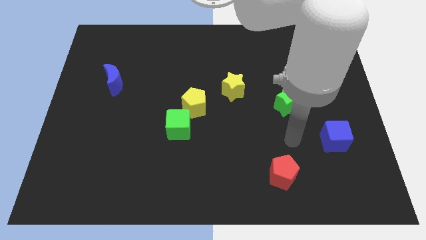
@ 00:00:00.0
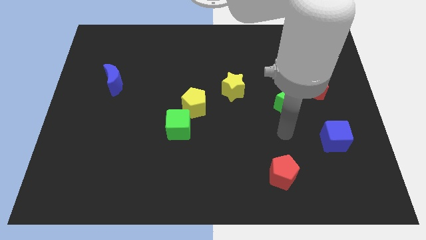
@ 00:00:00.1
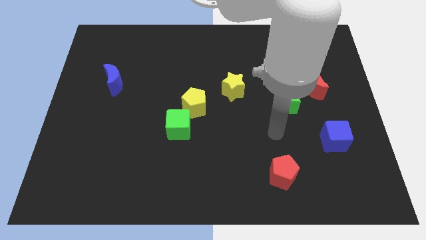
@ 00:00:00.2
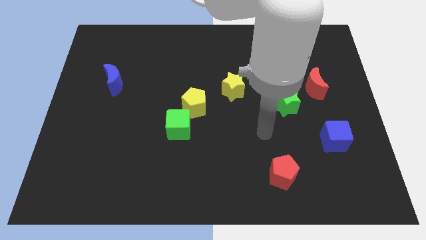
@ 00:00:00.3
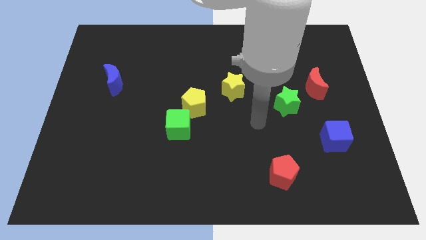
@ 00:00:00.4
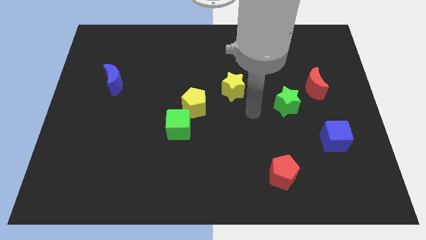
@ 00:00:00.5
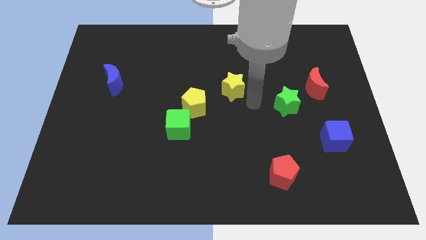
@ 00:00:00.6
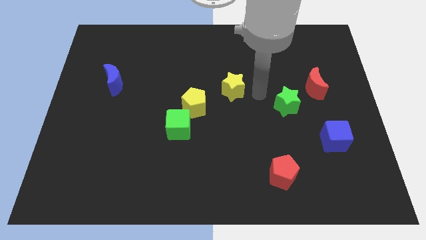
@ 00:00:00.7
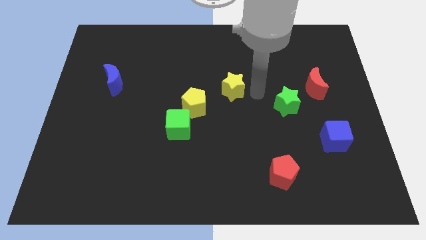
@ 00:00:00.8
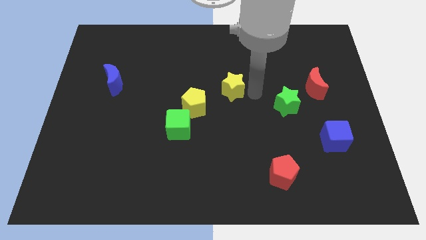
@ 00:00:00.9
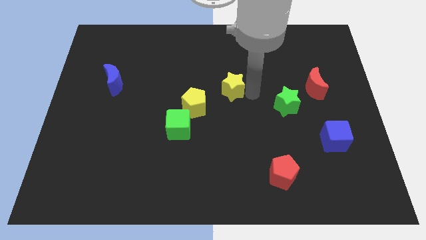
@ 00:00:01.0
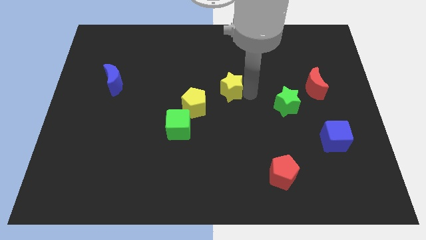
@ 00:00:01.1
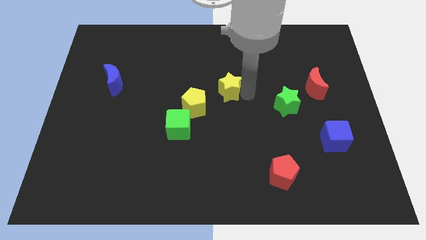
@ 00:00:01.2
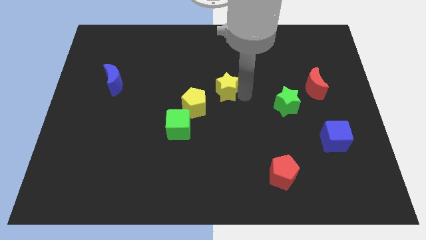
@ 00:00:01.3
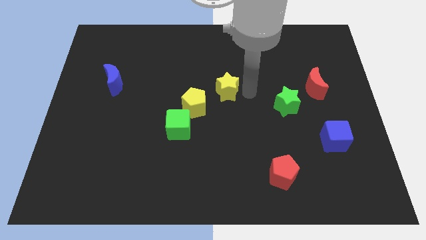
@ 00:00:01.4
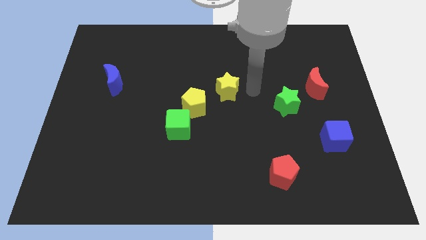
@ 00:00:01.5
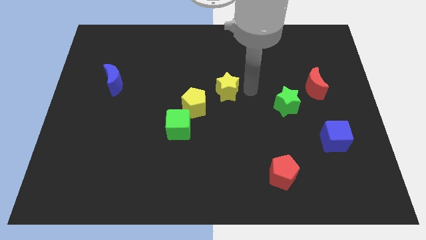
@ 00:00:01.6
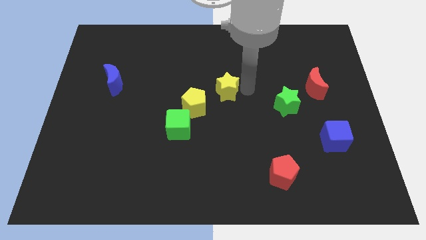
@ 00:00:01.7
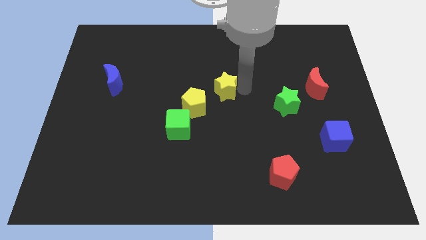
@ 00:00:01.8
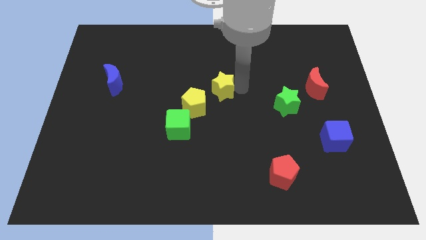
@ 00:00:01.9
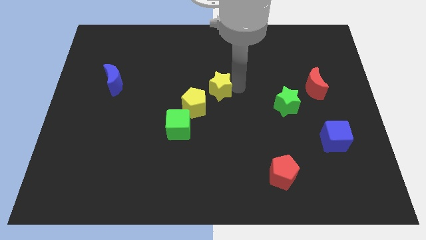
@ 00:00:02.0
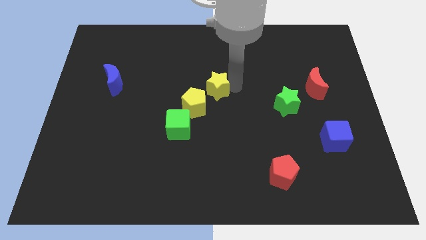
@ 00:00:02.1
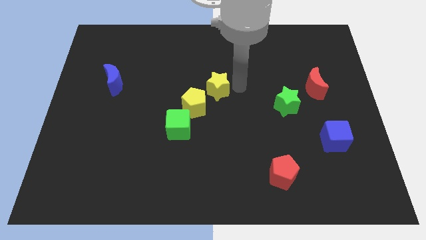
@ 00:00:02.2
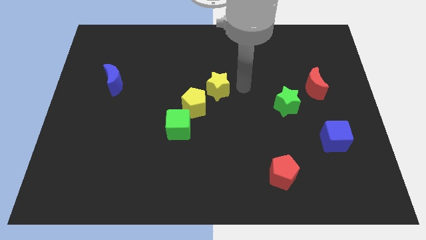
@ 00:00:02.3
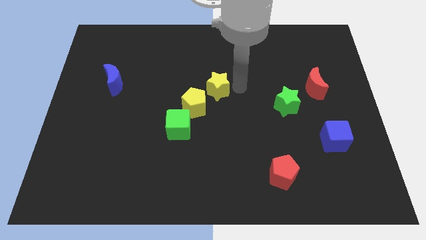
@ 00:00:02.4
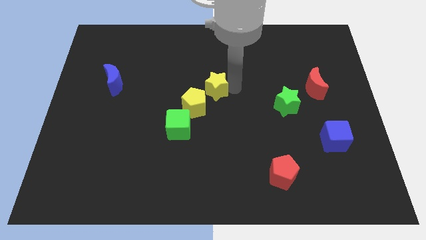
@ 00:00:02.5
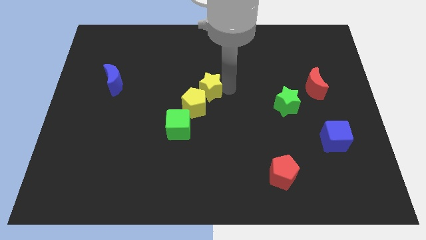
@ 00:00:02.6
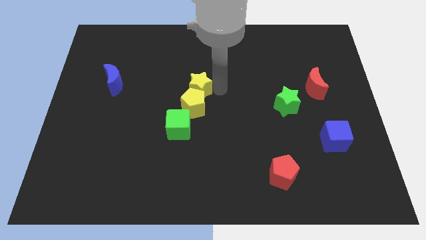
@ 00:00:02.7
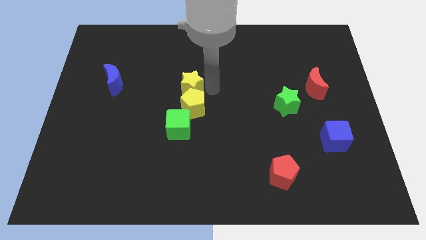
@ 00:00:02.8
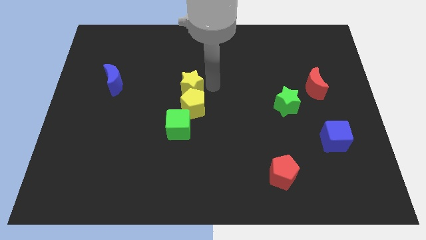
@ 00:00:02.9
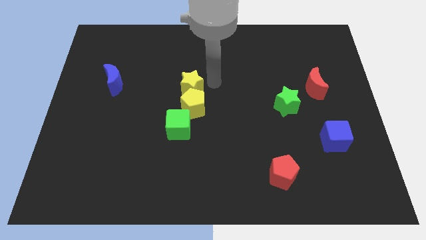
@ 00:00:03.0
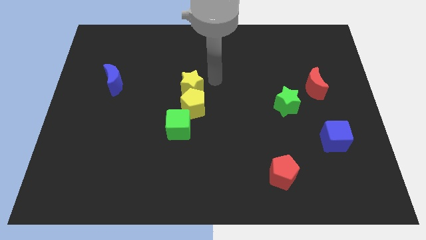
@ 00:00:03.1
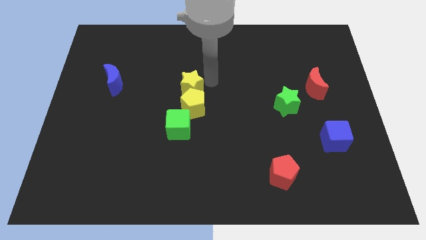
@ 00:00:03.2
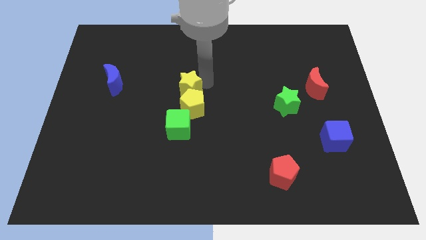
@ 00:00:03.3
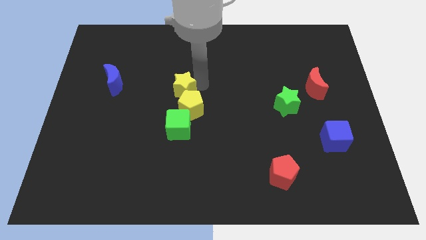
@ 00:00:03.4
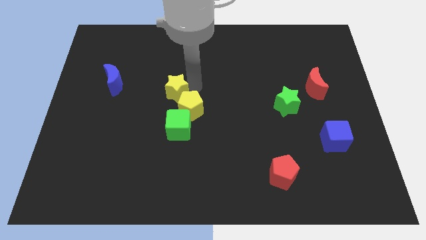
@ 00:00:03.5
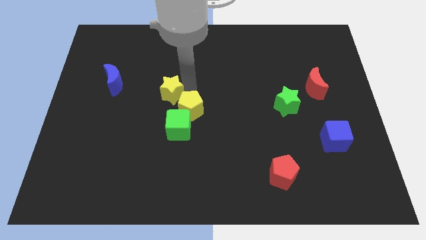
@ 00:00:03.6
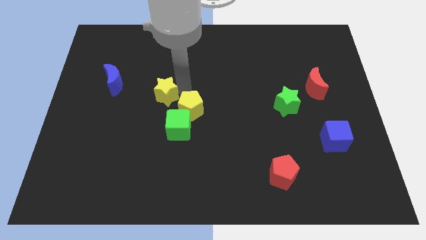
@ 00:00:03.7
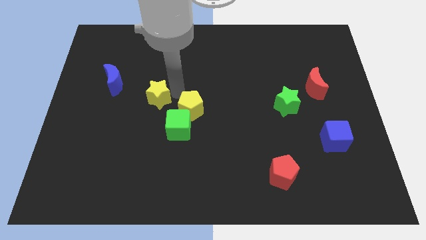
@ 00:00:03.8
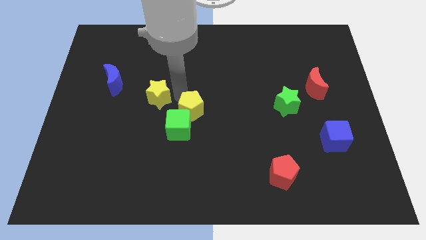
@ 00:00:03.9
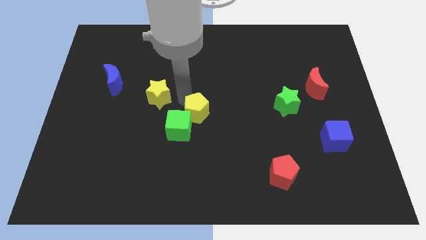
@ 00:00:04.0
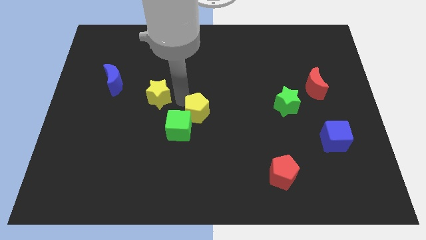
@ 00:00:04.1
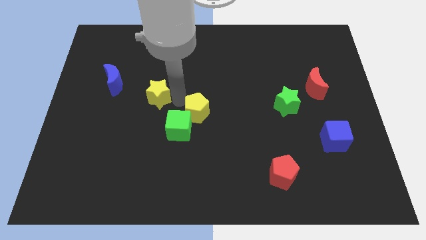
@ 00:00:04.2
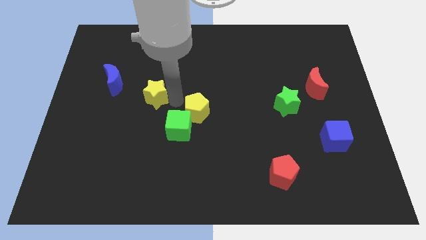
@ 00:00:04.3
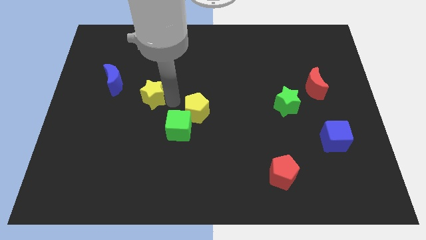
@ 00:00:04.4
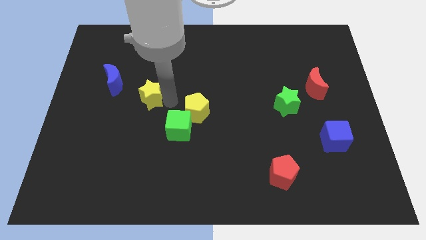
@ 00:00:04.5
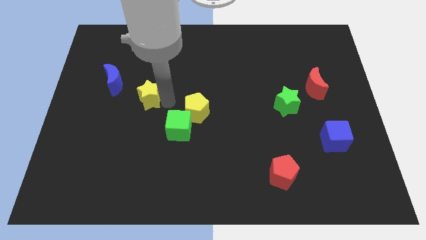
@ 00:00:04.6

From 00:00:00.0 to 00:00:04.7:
move the yellow star to the left

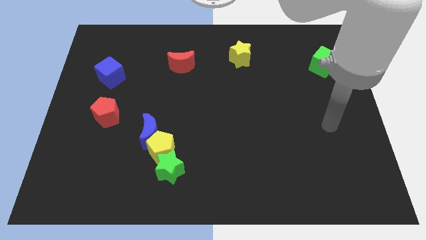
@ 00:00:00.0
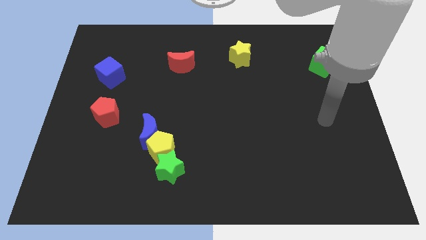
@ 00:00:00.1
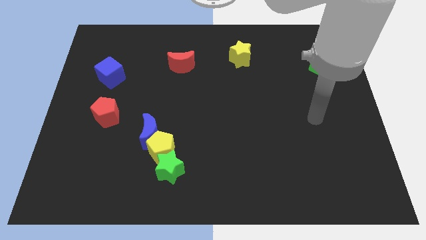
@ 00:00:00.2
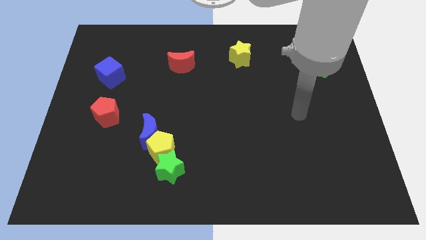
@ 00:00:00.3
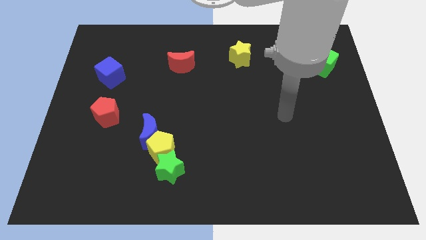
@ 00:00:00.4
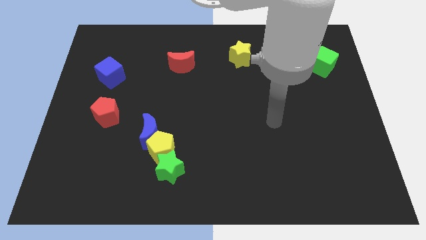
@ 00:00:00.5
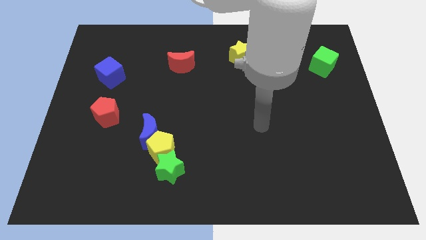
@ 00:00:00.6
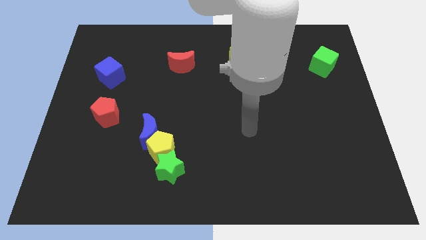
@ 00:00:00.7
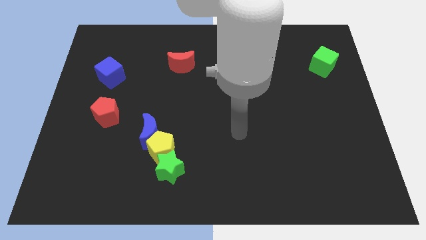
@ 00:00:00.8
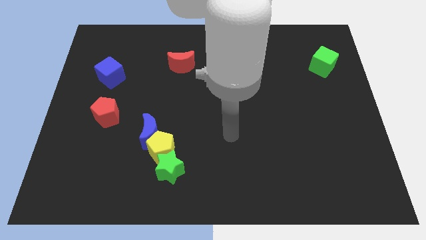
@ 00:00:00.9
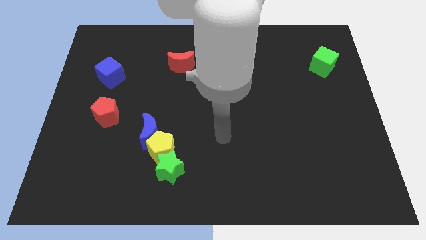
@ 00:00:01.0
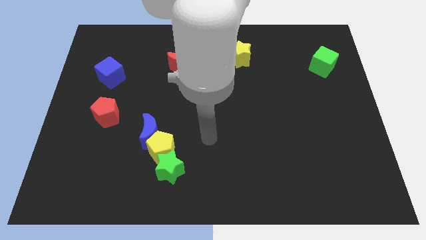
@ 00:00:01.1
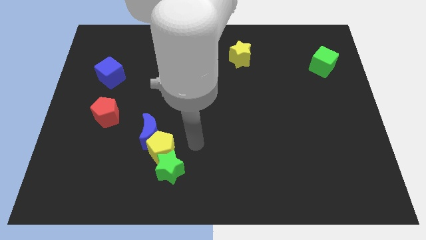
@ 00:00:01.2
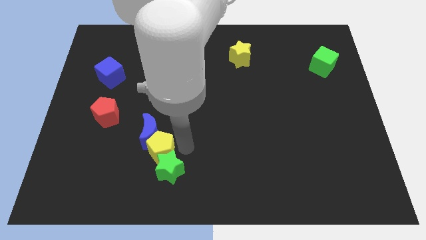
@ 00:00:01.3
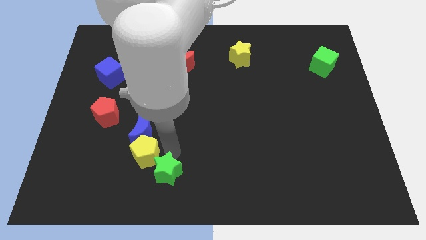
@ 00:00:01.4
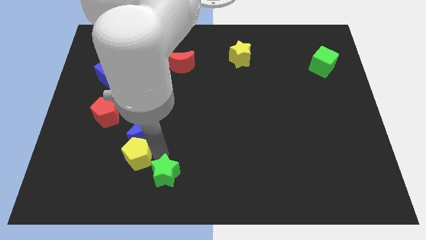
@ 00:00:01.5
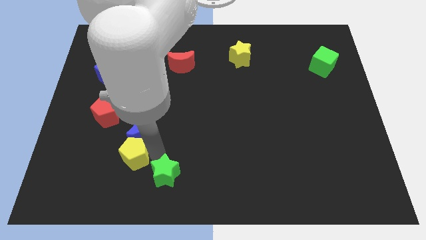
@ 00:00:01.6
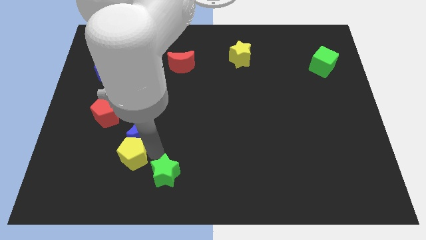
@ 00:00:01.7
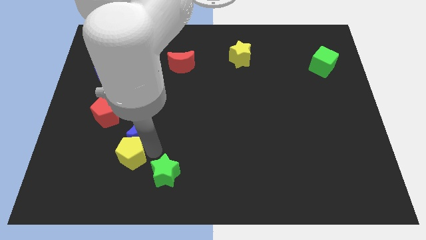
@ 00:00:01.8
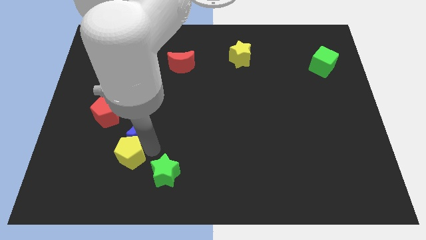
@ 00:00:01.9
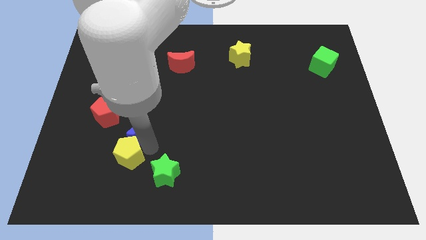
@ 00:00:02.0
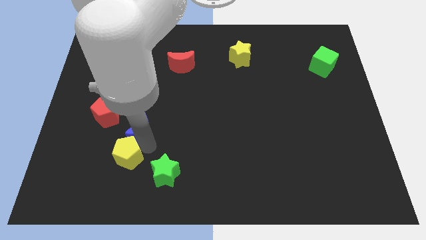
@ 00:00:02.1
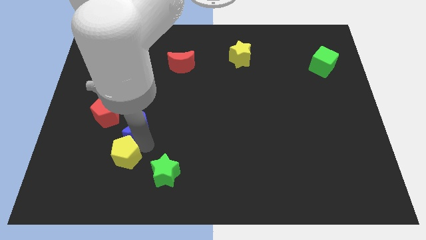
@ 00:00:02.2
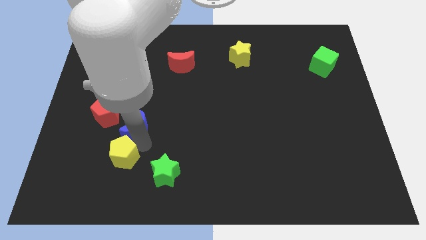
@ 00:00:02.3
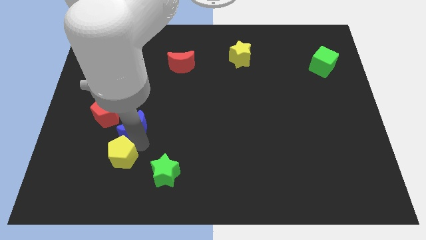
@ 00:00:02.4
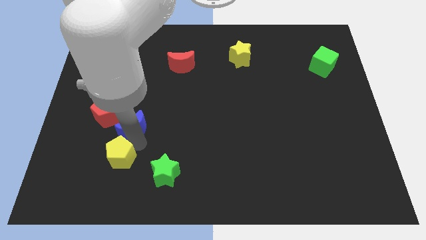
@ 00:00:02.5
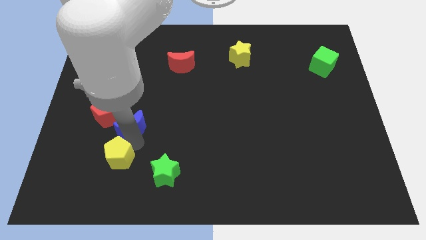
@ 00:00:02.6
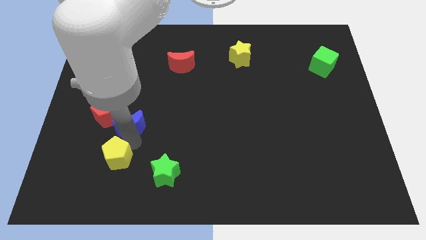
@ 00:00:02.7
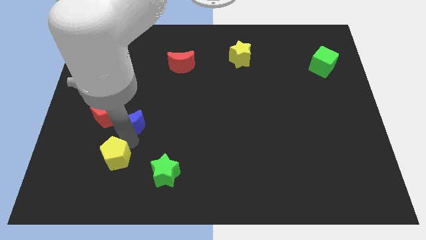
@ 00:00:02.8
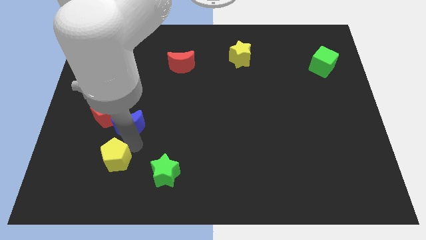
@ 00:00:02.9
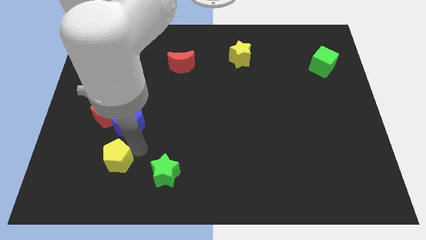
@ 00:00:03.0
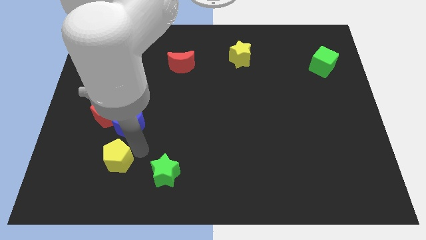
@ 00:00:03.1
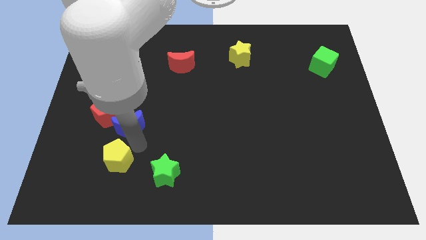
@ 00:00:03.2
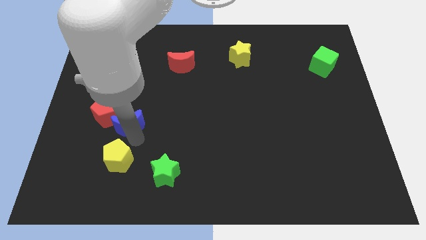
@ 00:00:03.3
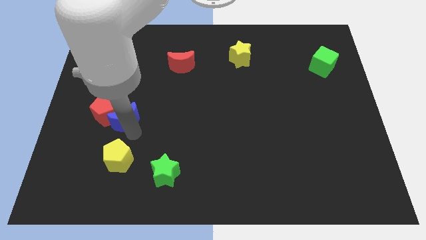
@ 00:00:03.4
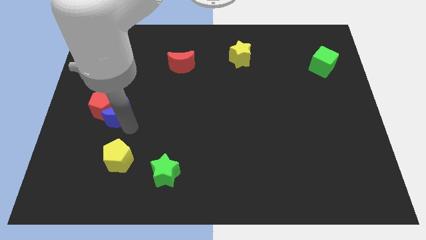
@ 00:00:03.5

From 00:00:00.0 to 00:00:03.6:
slightly move the blue moon upwards and to the left diagonally
